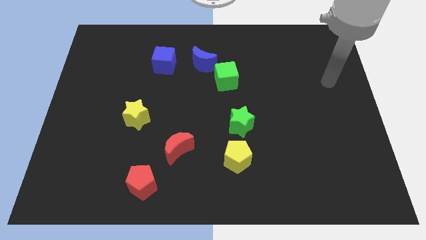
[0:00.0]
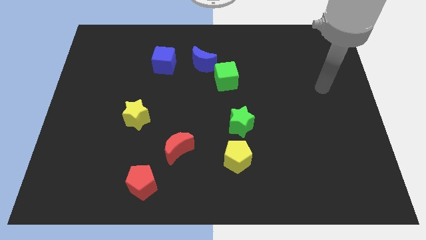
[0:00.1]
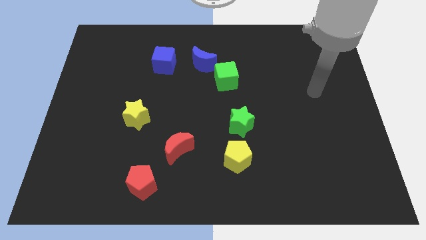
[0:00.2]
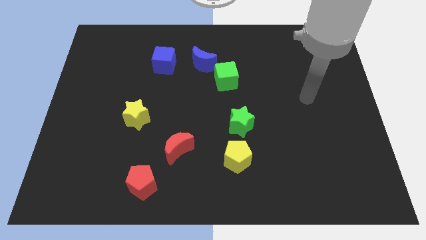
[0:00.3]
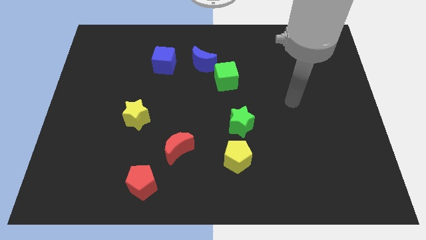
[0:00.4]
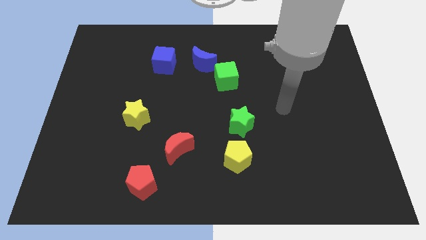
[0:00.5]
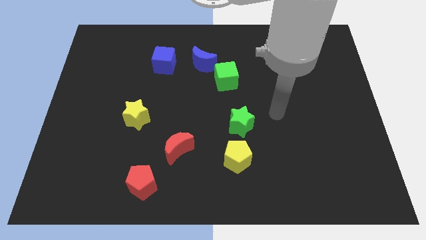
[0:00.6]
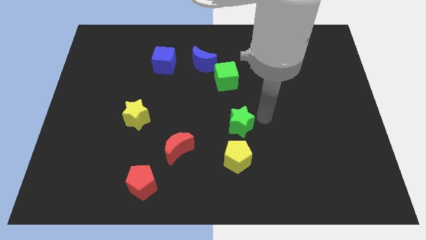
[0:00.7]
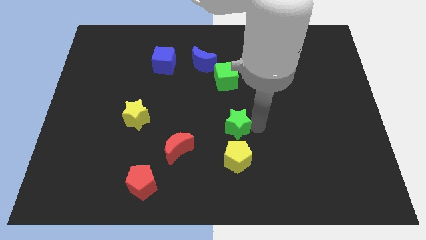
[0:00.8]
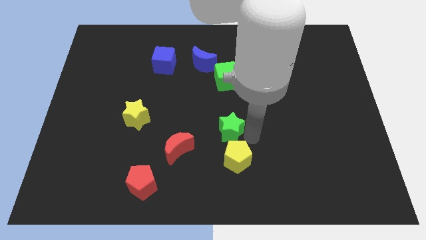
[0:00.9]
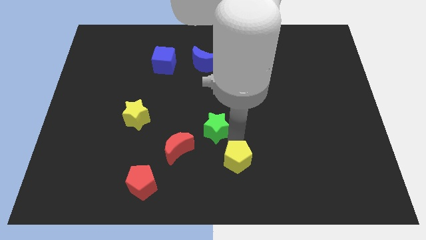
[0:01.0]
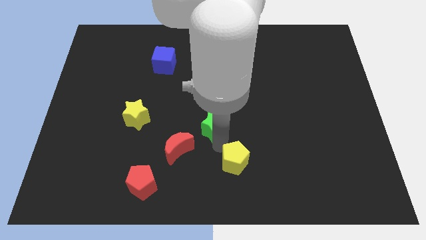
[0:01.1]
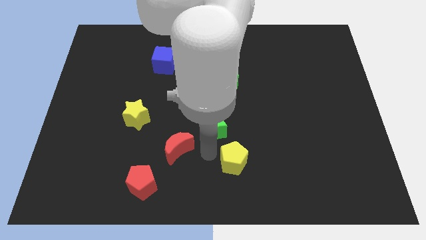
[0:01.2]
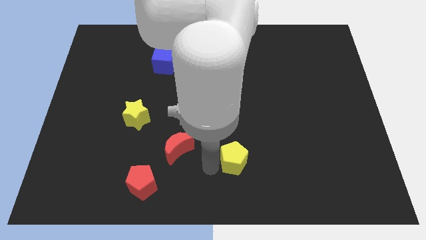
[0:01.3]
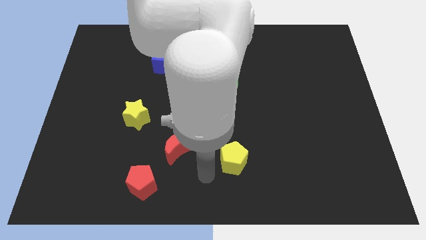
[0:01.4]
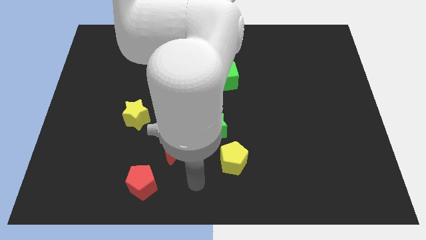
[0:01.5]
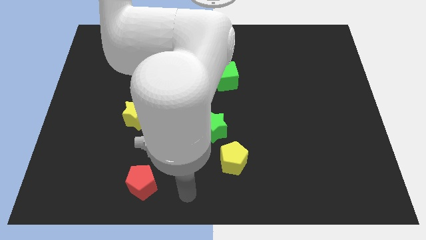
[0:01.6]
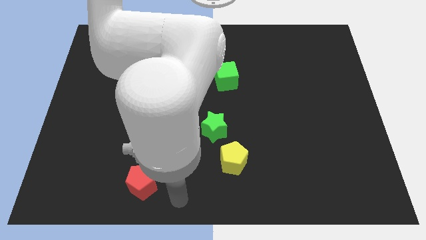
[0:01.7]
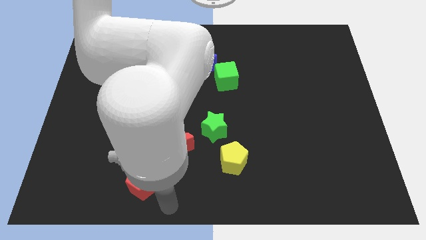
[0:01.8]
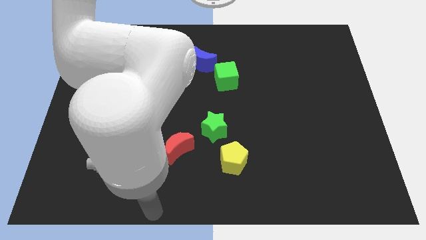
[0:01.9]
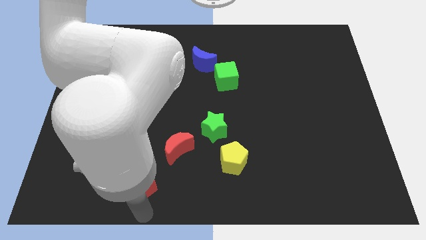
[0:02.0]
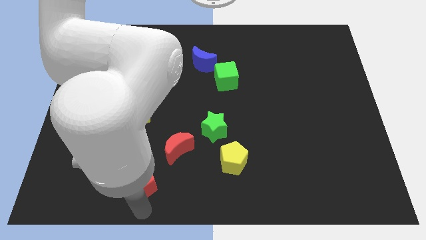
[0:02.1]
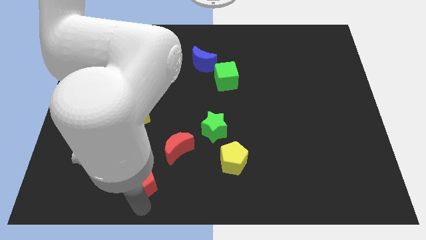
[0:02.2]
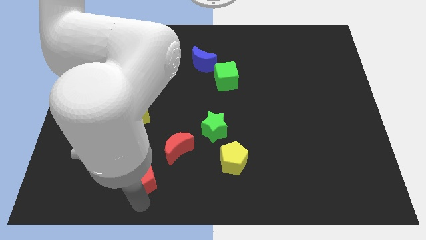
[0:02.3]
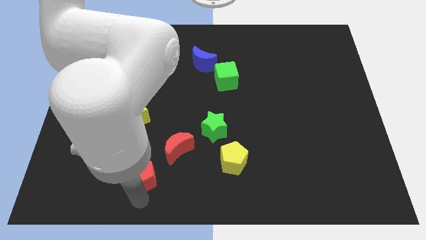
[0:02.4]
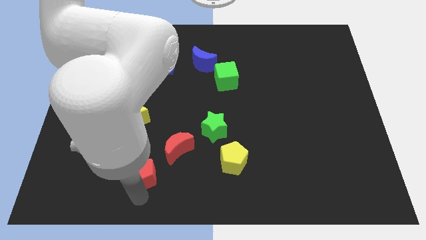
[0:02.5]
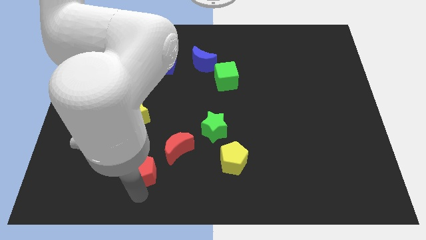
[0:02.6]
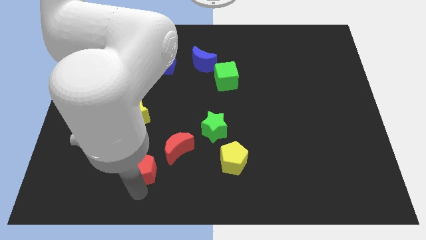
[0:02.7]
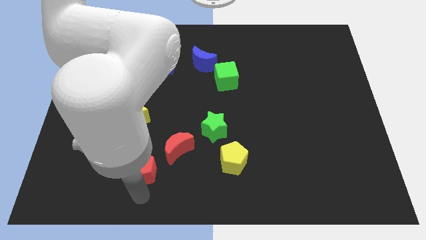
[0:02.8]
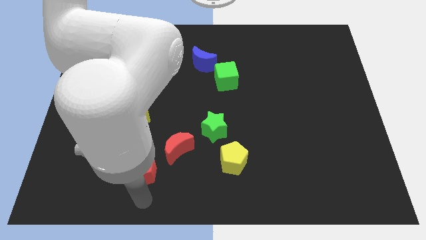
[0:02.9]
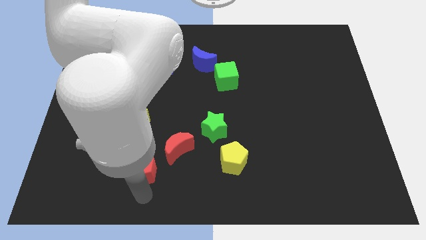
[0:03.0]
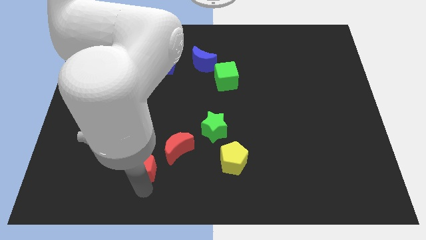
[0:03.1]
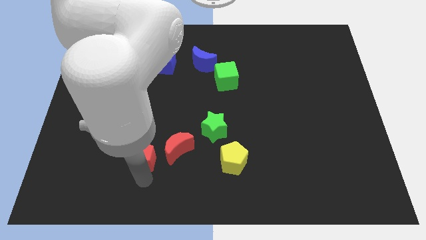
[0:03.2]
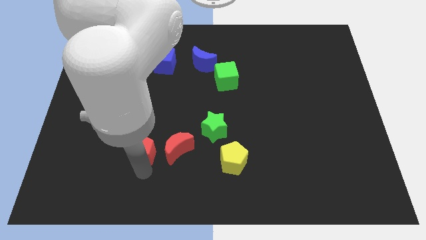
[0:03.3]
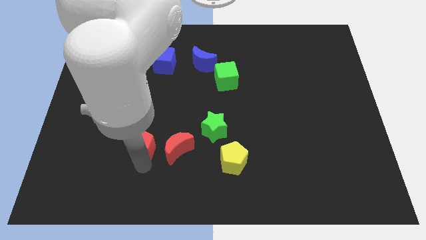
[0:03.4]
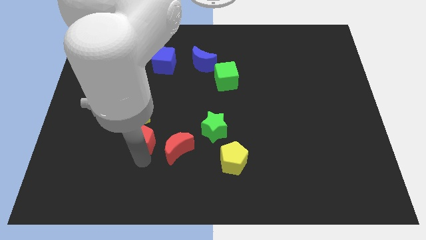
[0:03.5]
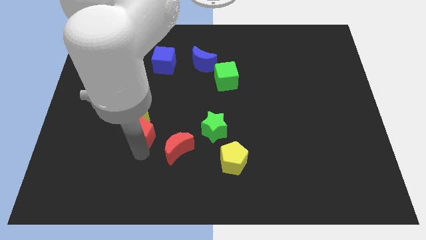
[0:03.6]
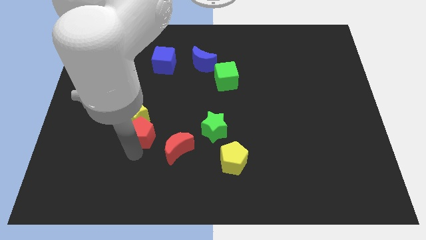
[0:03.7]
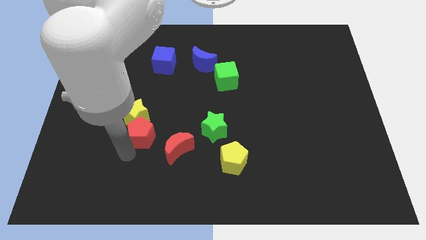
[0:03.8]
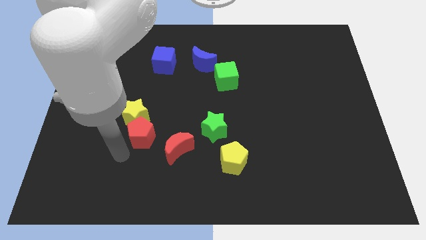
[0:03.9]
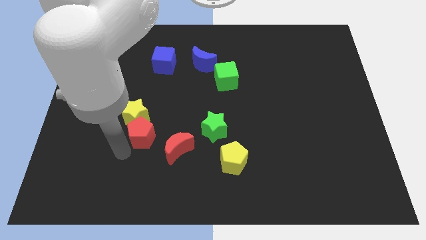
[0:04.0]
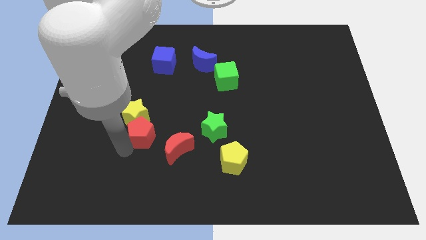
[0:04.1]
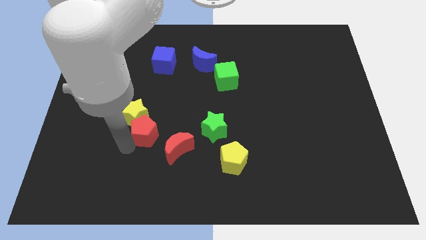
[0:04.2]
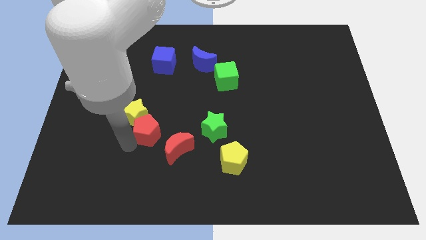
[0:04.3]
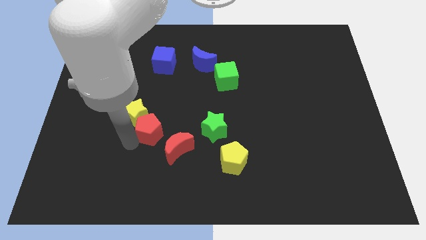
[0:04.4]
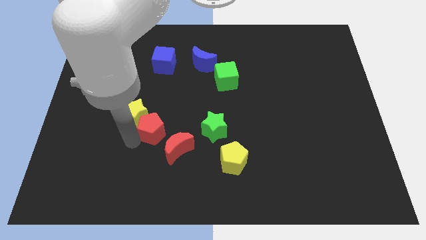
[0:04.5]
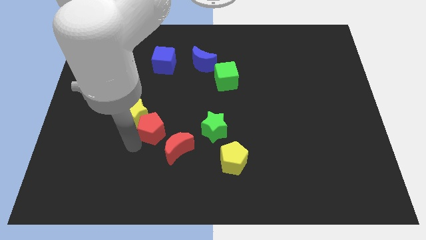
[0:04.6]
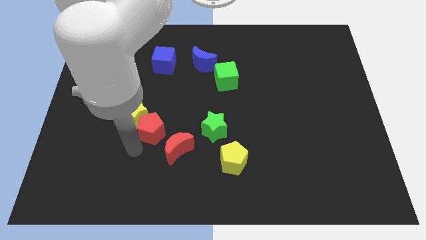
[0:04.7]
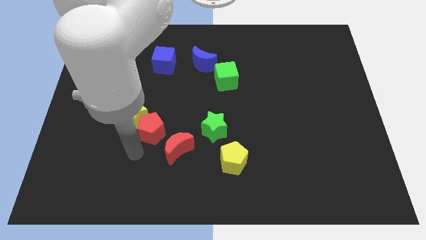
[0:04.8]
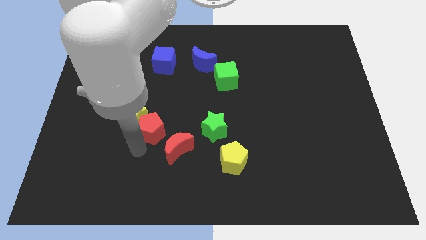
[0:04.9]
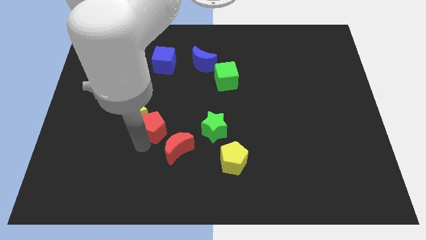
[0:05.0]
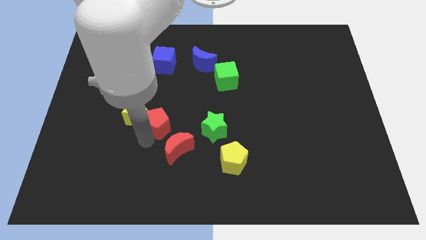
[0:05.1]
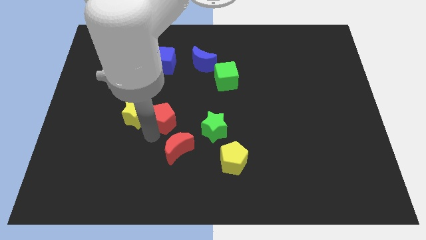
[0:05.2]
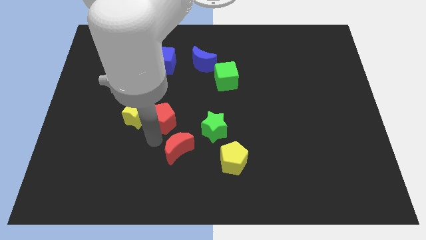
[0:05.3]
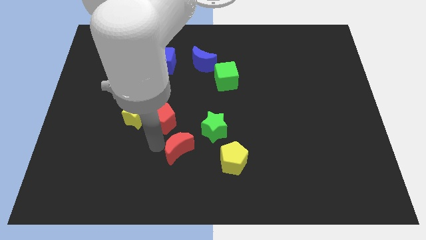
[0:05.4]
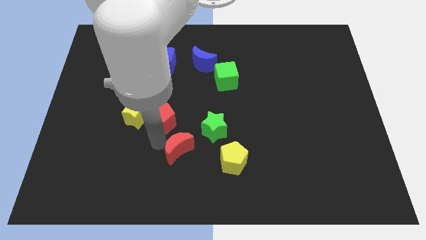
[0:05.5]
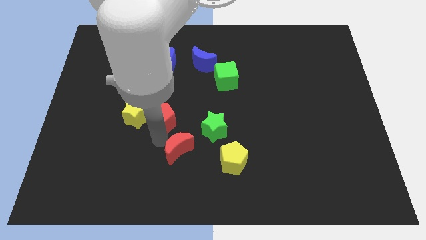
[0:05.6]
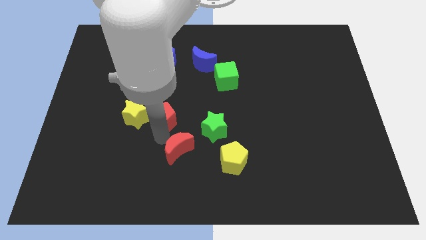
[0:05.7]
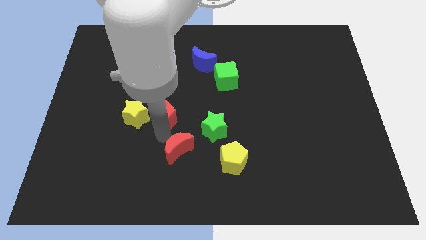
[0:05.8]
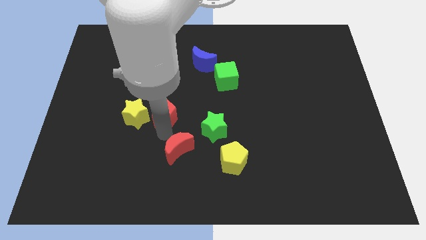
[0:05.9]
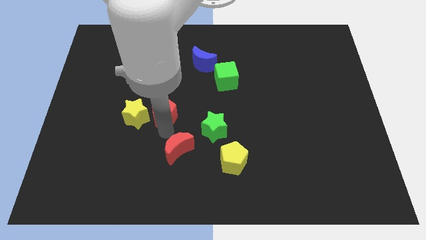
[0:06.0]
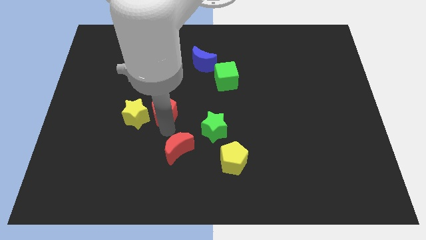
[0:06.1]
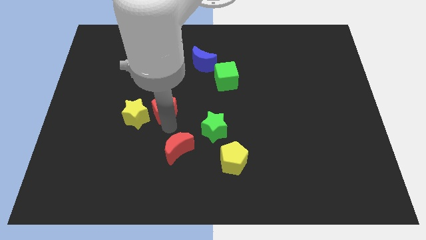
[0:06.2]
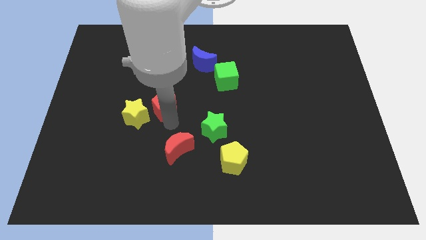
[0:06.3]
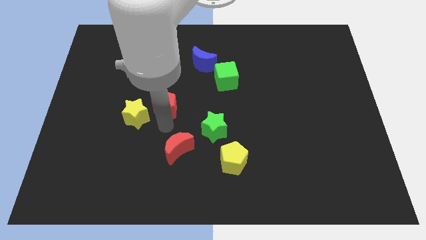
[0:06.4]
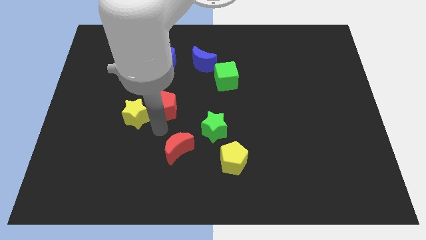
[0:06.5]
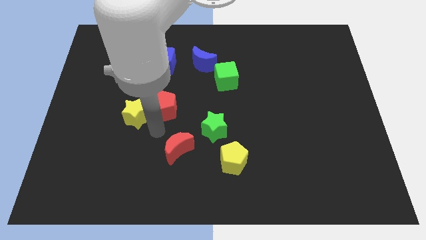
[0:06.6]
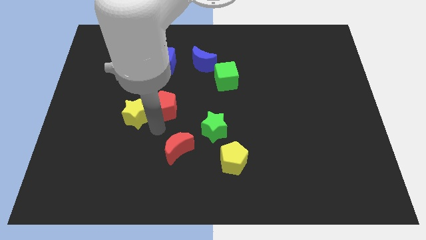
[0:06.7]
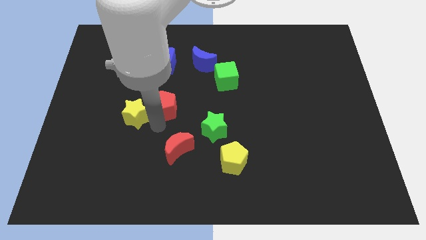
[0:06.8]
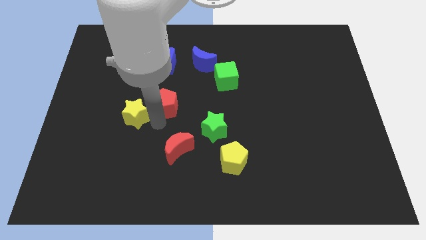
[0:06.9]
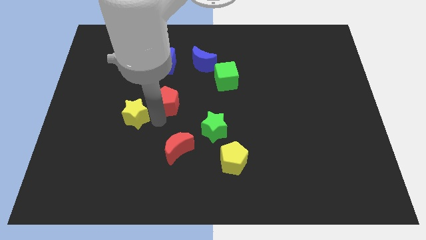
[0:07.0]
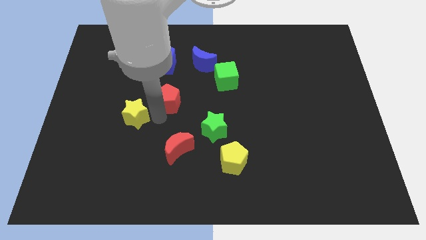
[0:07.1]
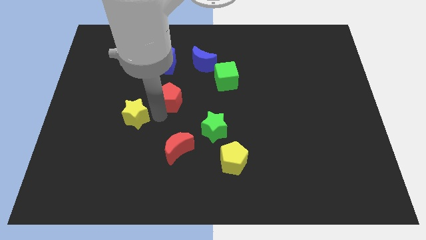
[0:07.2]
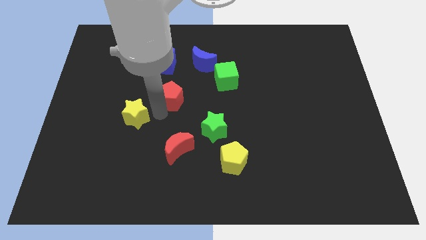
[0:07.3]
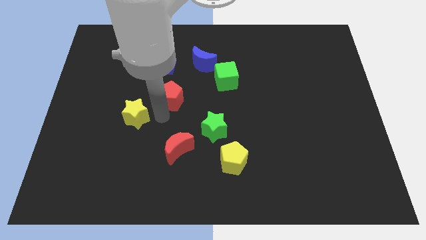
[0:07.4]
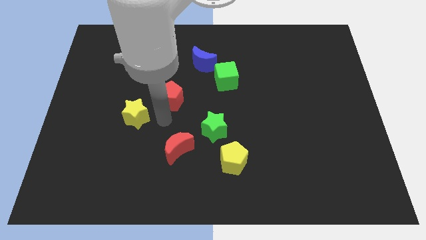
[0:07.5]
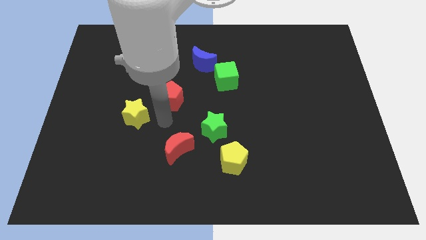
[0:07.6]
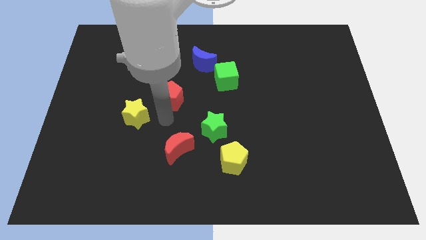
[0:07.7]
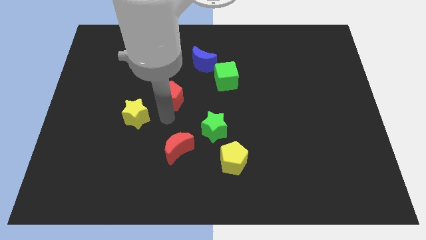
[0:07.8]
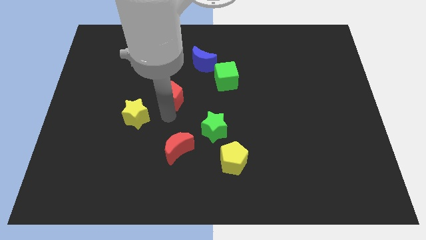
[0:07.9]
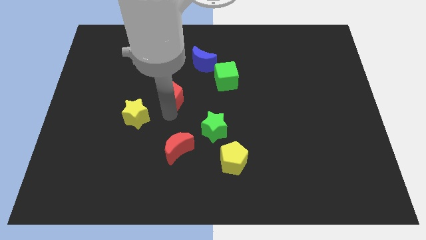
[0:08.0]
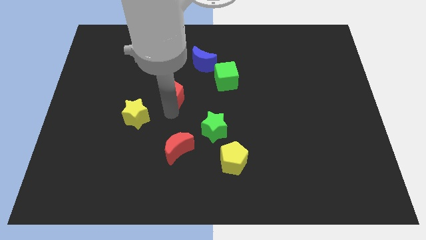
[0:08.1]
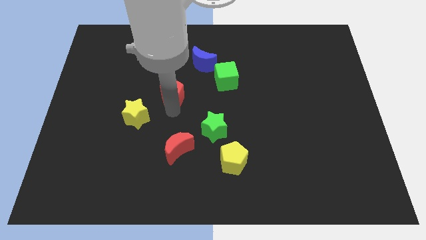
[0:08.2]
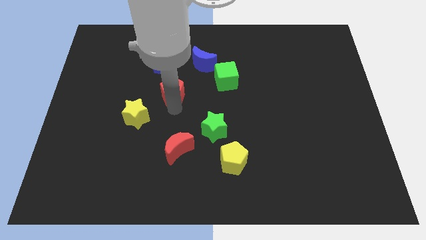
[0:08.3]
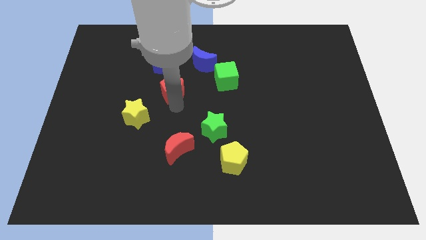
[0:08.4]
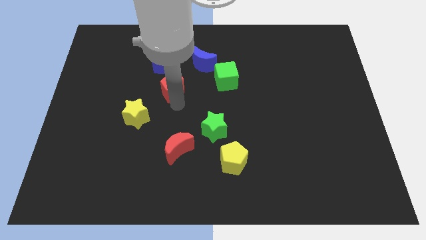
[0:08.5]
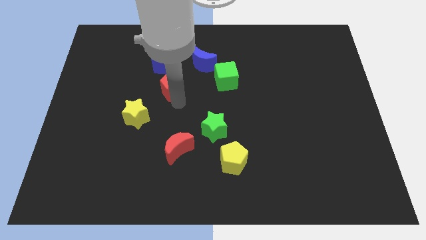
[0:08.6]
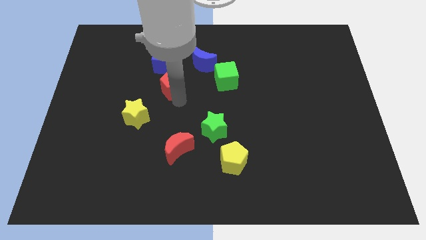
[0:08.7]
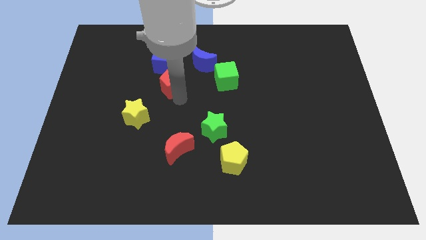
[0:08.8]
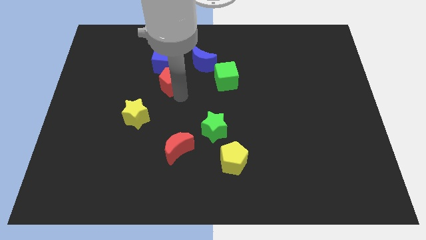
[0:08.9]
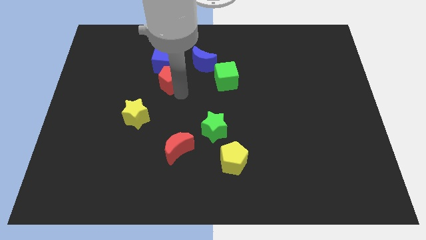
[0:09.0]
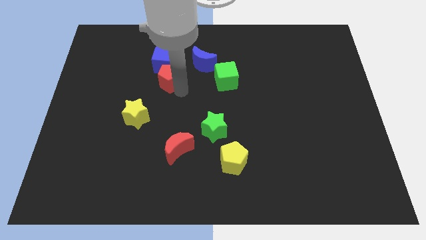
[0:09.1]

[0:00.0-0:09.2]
move the red pentagon next to the blue cube
